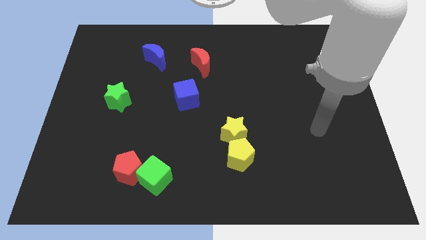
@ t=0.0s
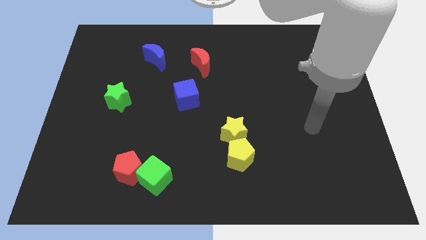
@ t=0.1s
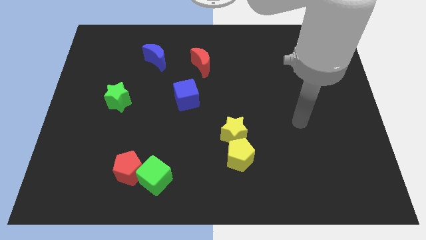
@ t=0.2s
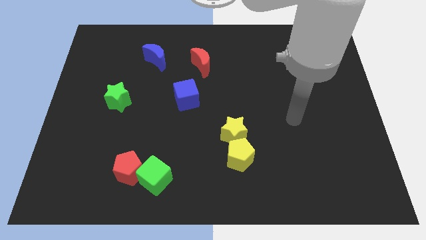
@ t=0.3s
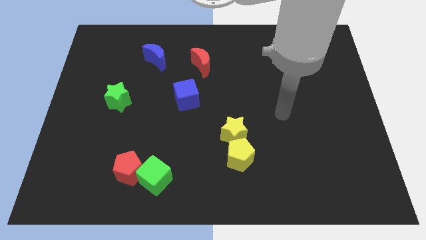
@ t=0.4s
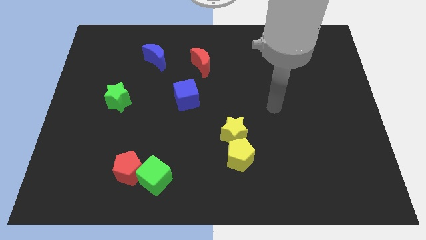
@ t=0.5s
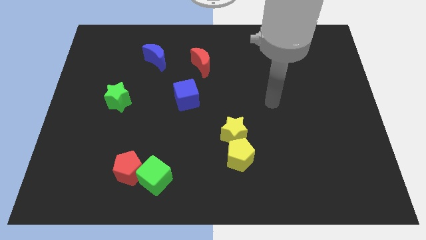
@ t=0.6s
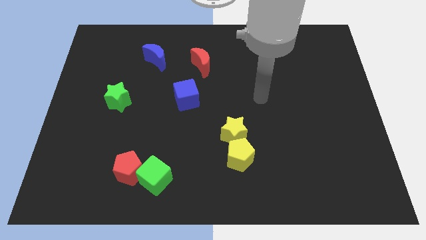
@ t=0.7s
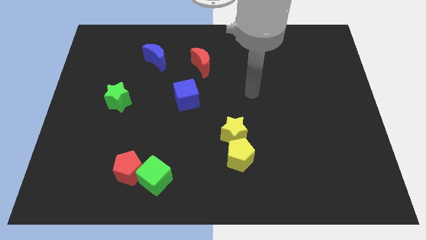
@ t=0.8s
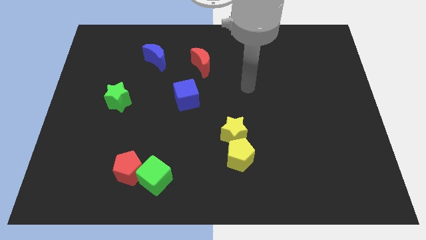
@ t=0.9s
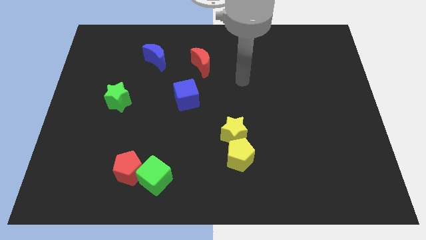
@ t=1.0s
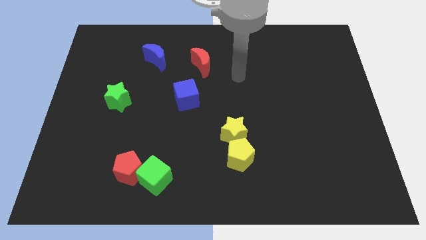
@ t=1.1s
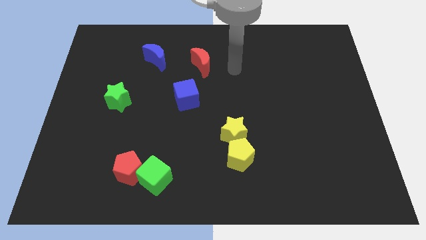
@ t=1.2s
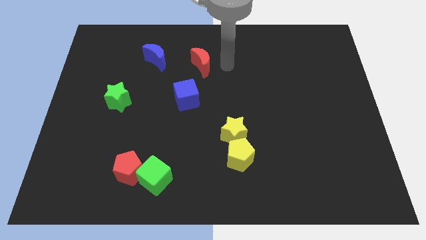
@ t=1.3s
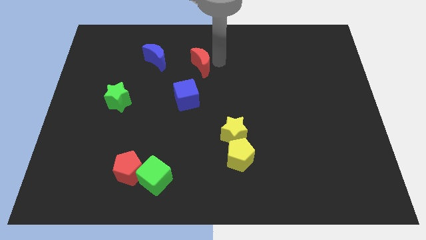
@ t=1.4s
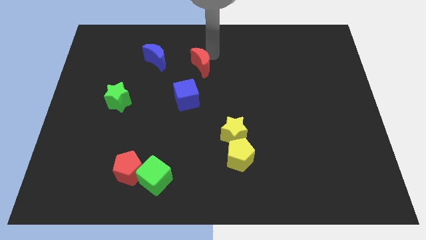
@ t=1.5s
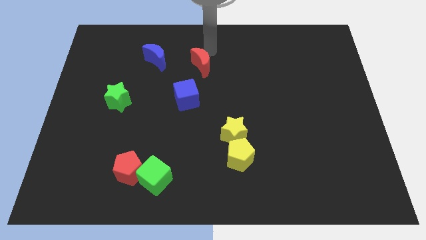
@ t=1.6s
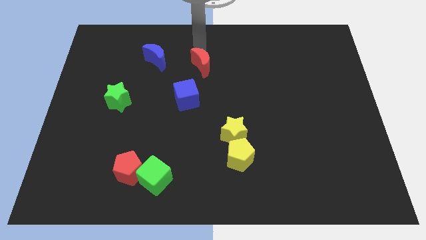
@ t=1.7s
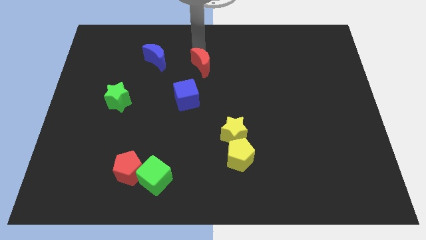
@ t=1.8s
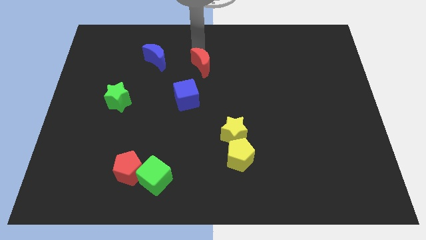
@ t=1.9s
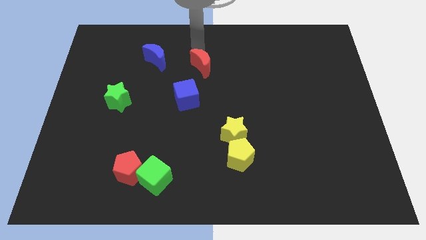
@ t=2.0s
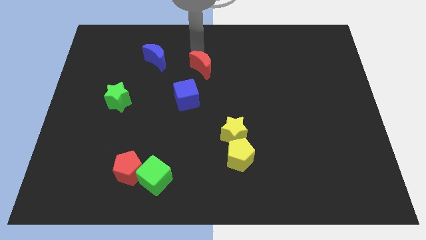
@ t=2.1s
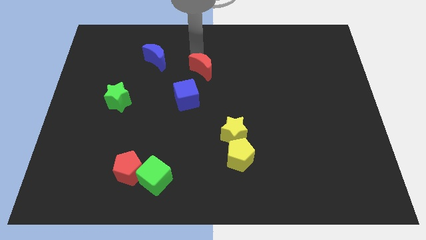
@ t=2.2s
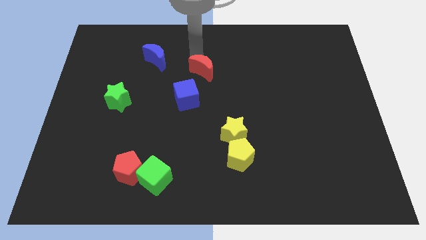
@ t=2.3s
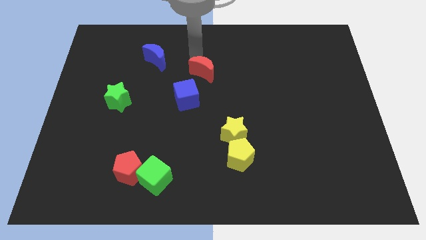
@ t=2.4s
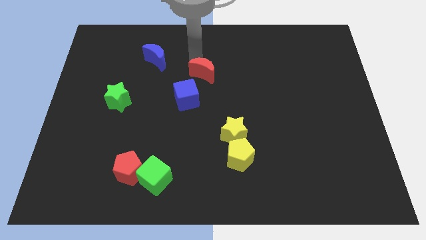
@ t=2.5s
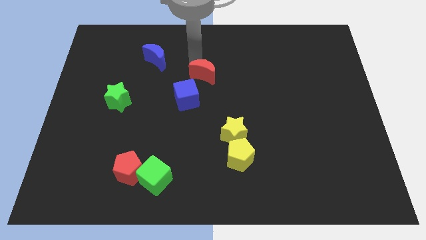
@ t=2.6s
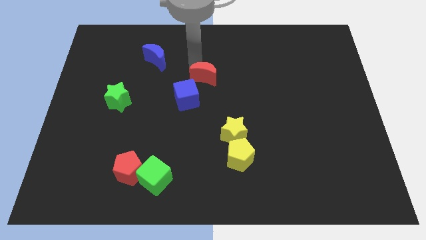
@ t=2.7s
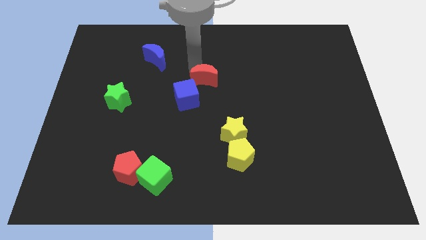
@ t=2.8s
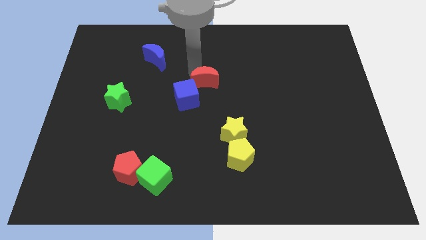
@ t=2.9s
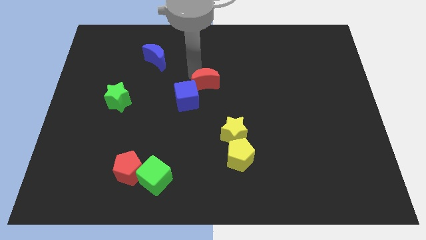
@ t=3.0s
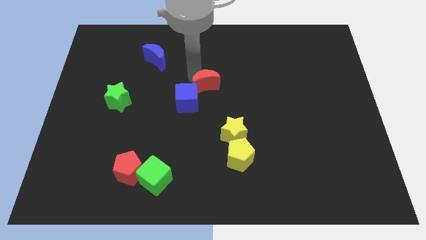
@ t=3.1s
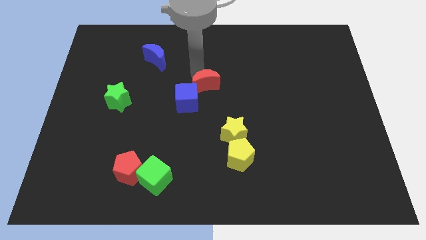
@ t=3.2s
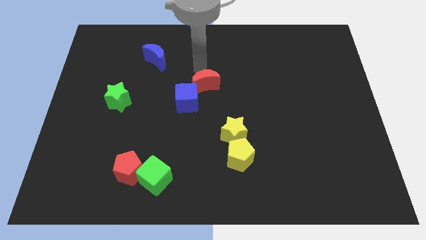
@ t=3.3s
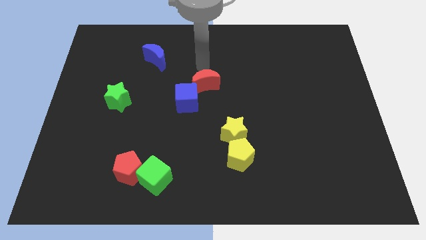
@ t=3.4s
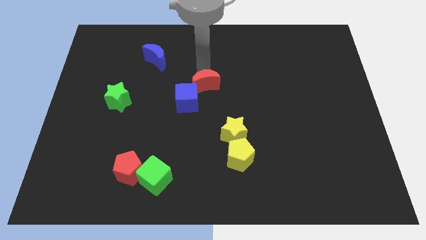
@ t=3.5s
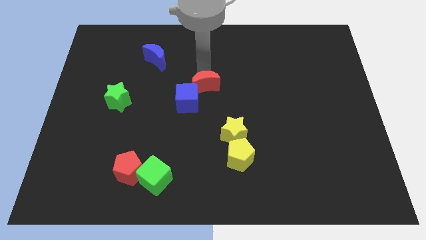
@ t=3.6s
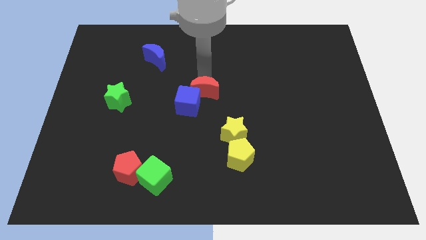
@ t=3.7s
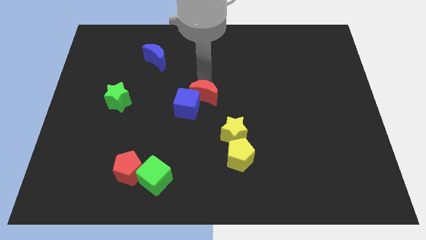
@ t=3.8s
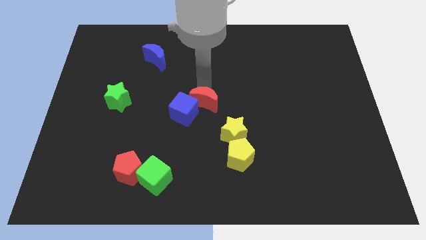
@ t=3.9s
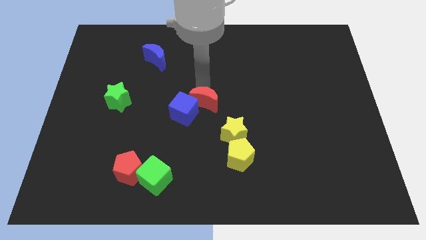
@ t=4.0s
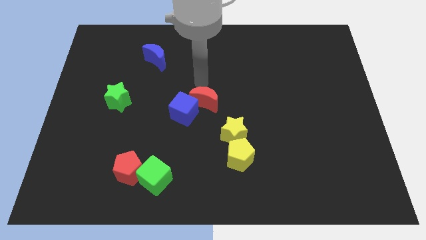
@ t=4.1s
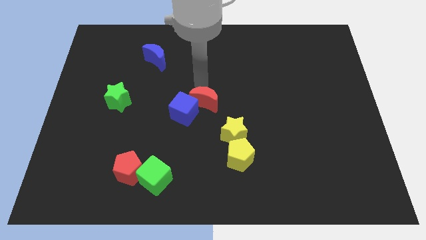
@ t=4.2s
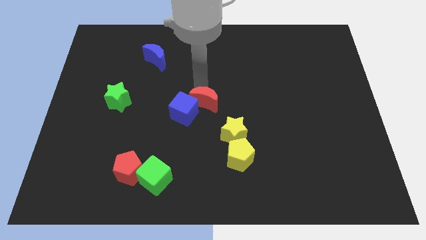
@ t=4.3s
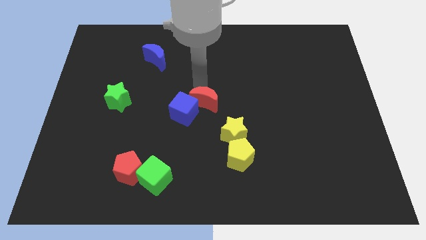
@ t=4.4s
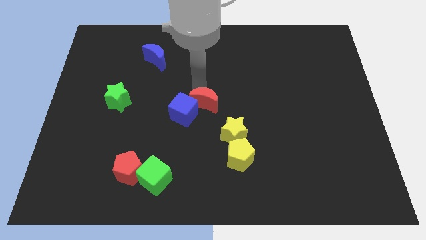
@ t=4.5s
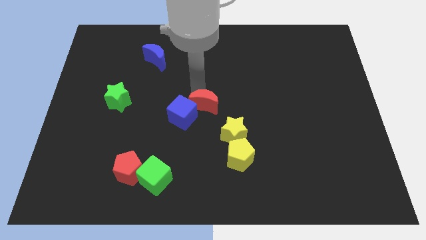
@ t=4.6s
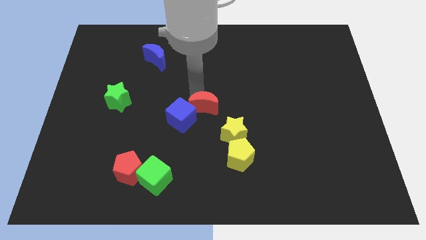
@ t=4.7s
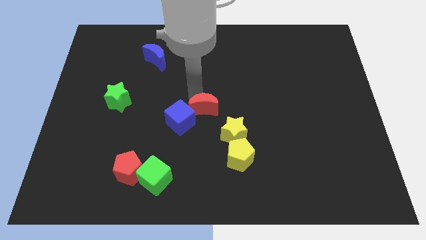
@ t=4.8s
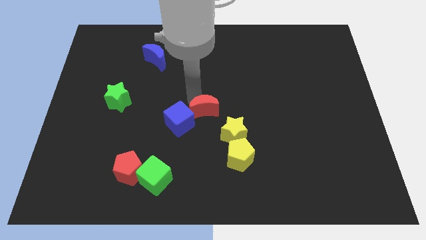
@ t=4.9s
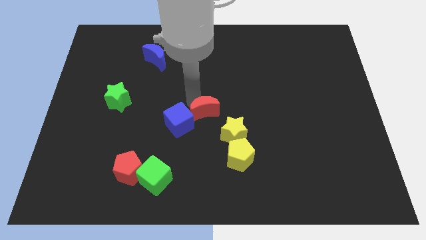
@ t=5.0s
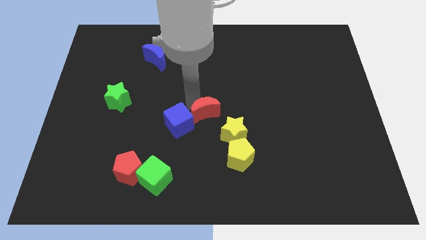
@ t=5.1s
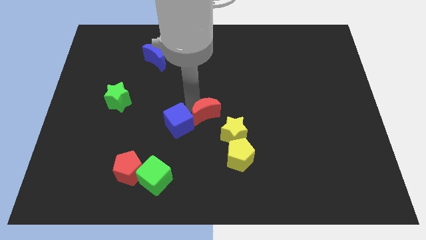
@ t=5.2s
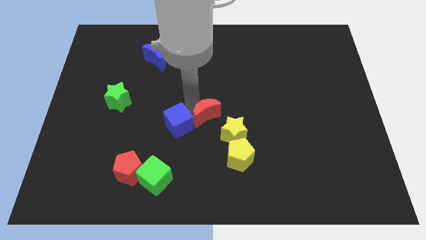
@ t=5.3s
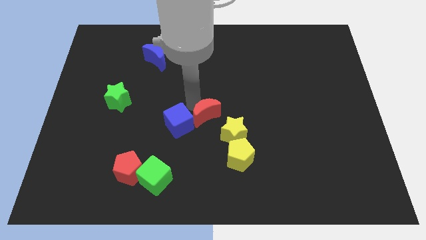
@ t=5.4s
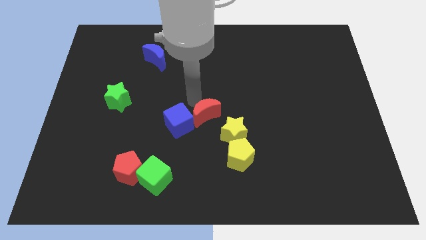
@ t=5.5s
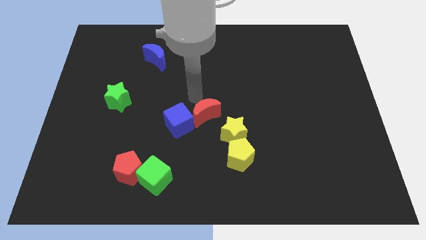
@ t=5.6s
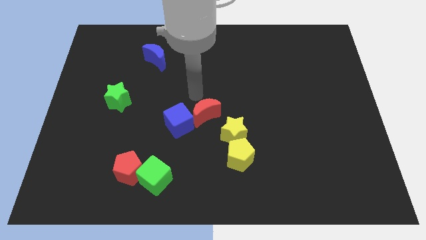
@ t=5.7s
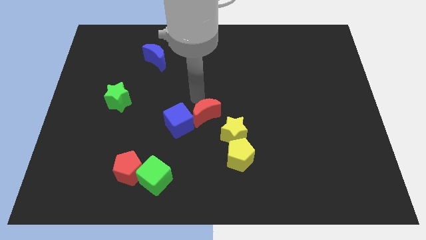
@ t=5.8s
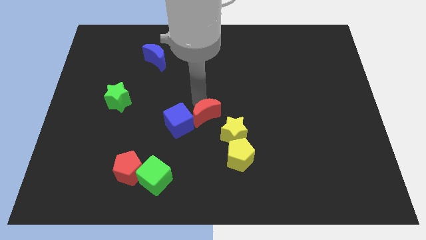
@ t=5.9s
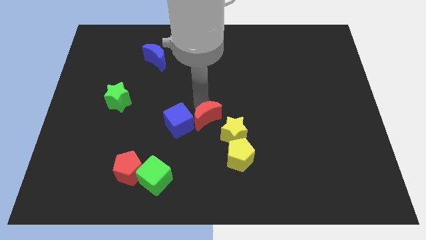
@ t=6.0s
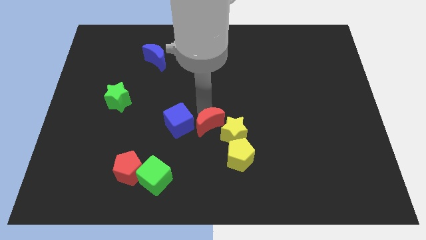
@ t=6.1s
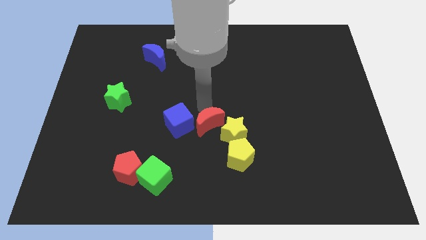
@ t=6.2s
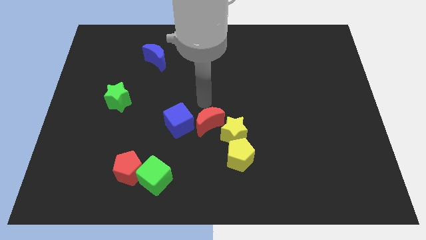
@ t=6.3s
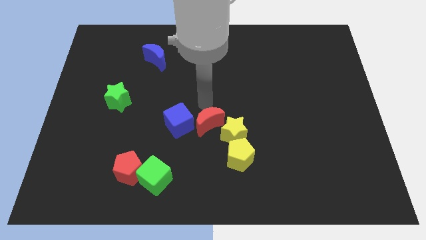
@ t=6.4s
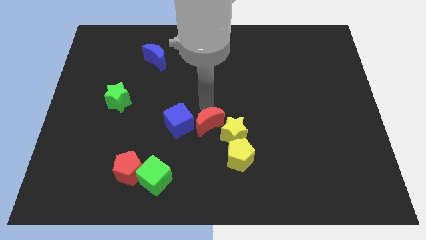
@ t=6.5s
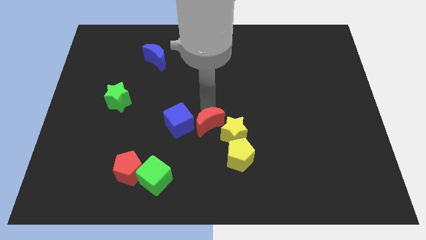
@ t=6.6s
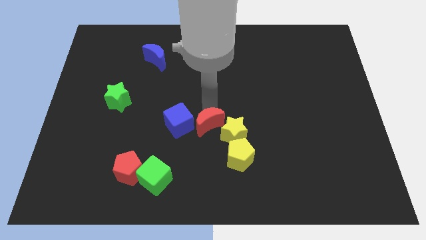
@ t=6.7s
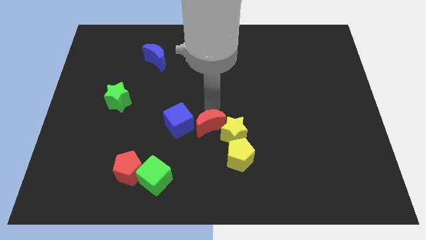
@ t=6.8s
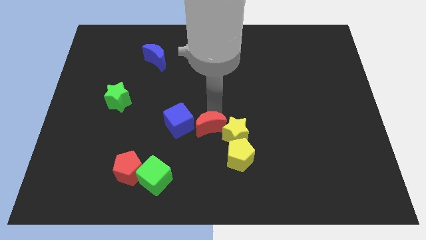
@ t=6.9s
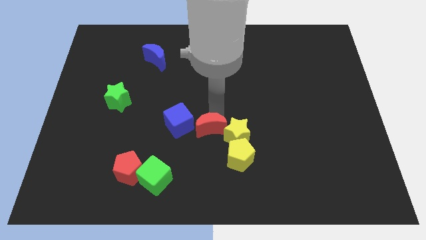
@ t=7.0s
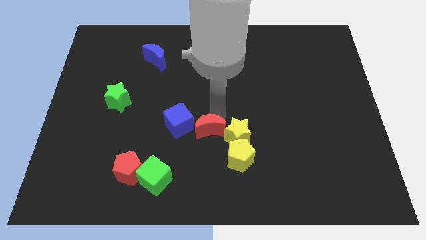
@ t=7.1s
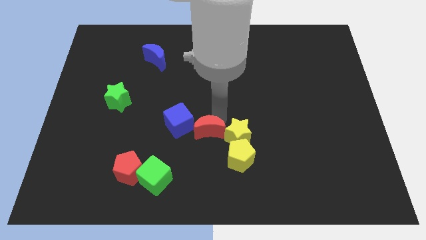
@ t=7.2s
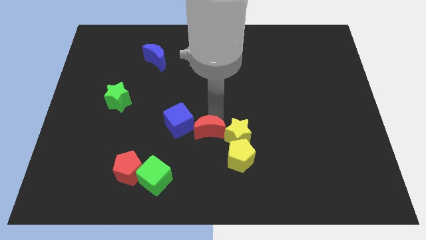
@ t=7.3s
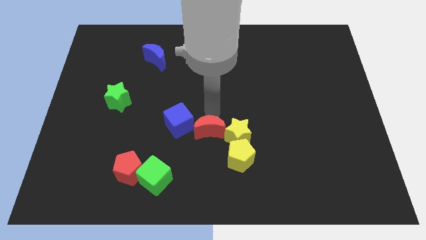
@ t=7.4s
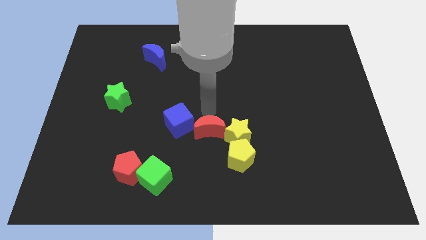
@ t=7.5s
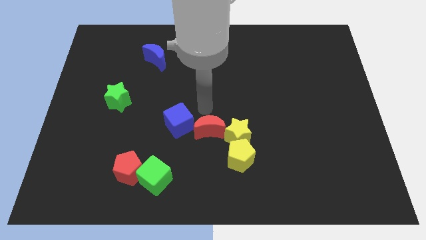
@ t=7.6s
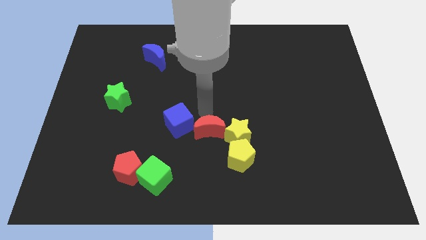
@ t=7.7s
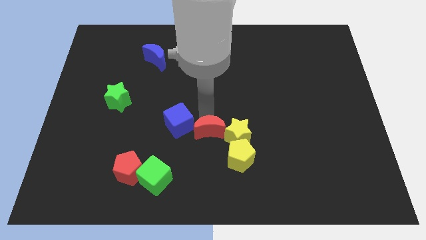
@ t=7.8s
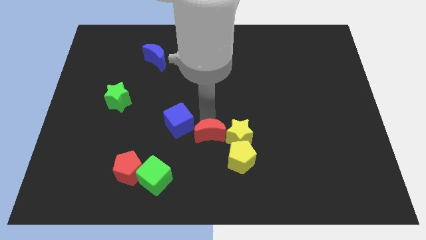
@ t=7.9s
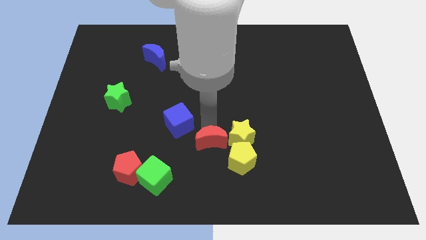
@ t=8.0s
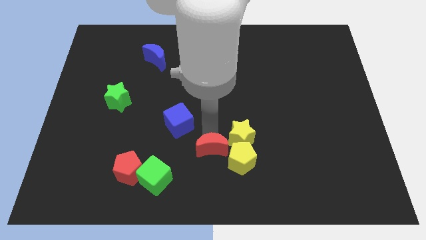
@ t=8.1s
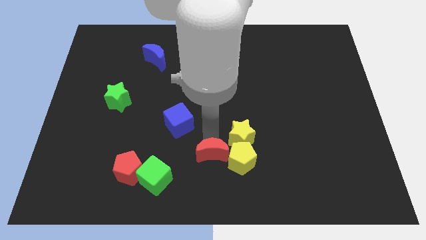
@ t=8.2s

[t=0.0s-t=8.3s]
push the red moon to the bottom
